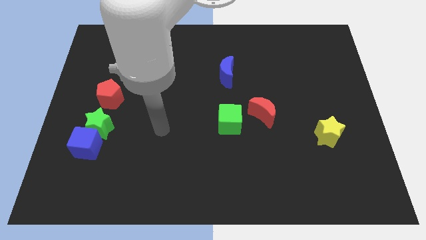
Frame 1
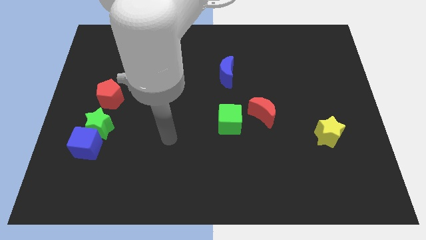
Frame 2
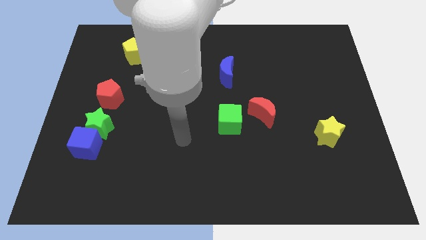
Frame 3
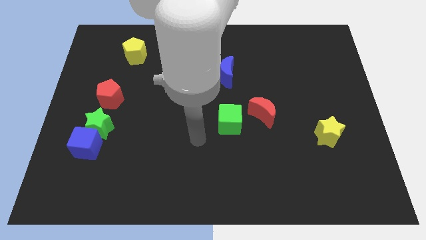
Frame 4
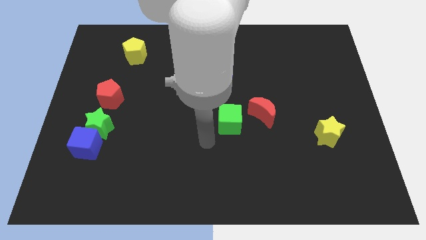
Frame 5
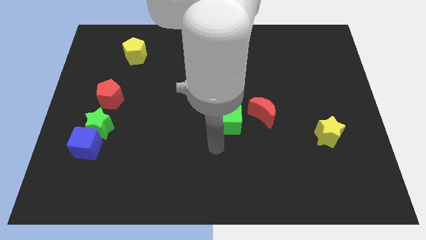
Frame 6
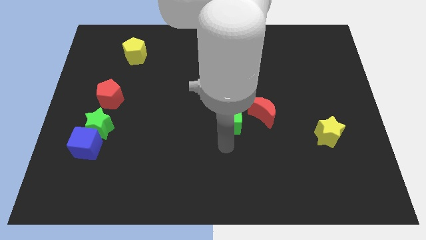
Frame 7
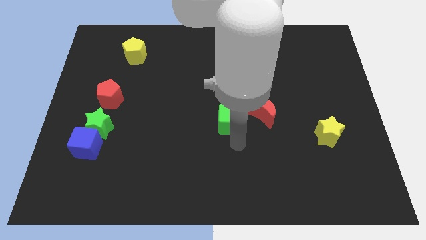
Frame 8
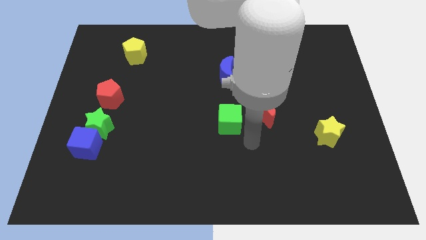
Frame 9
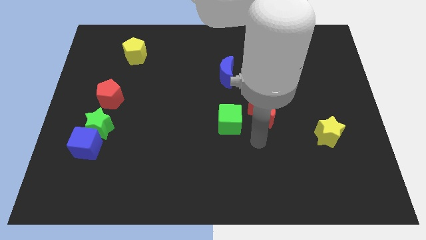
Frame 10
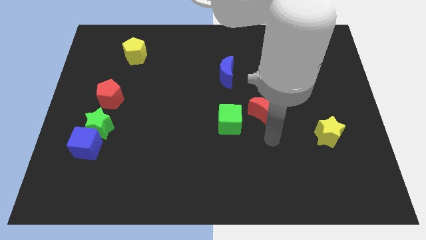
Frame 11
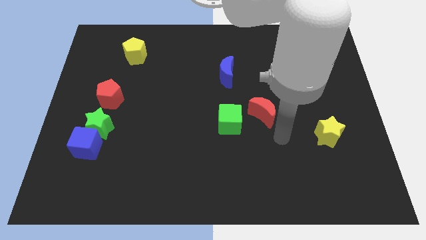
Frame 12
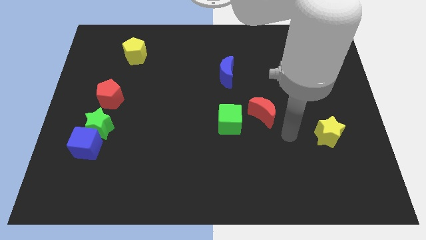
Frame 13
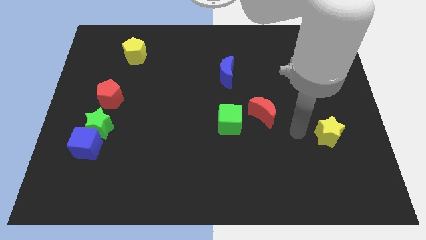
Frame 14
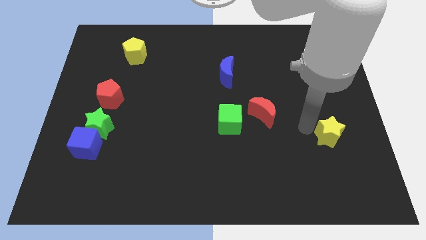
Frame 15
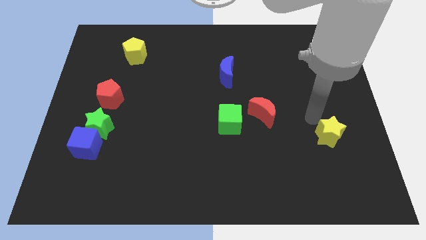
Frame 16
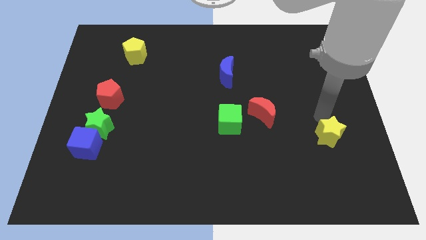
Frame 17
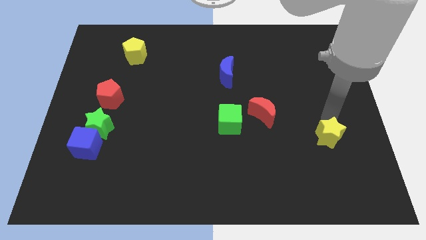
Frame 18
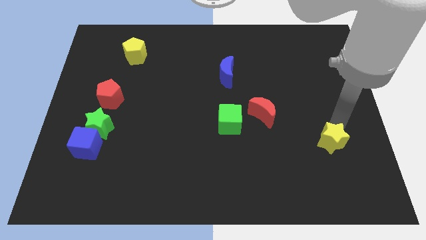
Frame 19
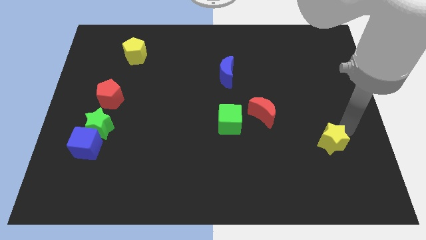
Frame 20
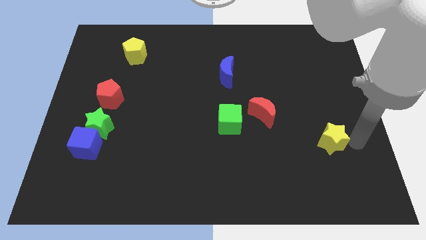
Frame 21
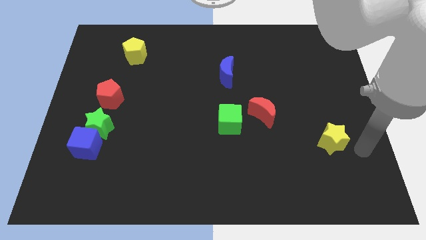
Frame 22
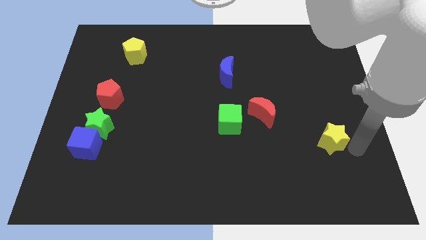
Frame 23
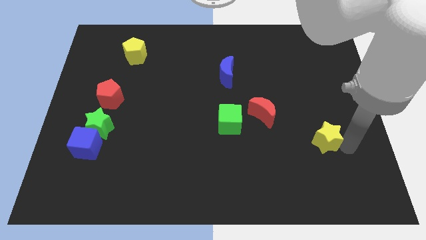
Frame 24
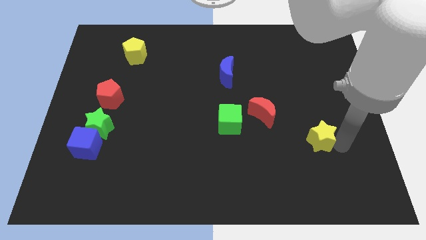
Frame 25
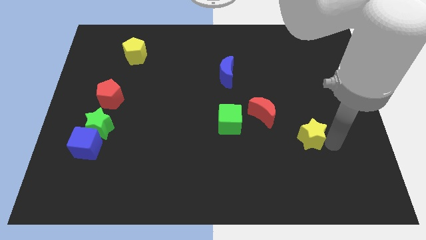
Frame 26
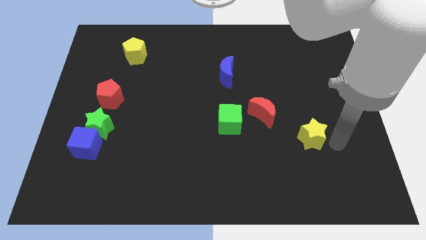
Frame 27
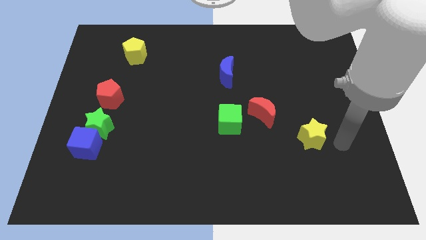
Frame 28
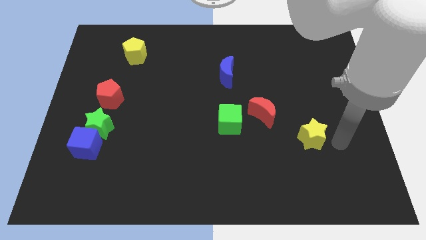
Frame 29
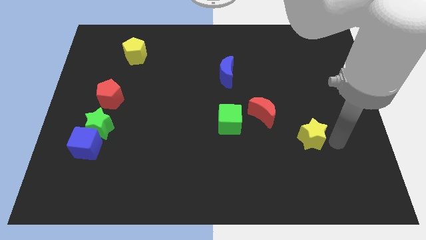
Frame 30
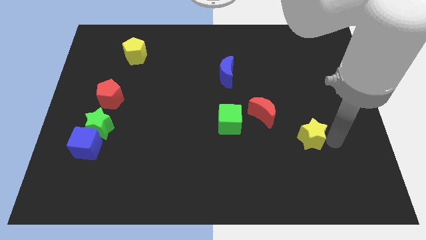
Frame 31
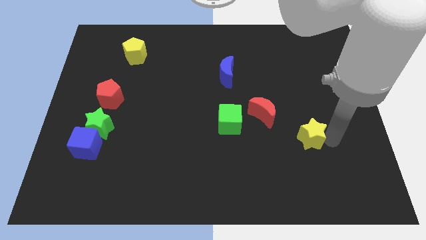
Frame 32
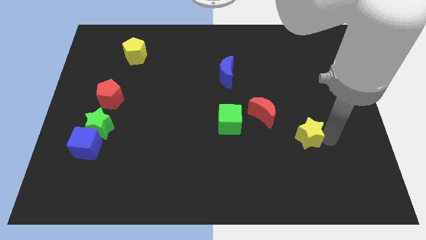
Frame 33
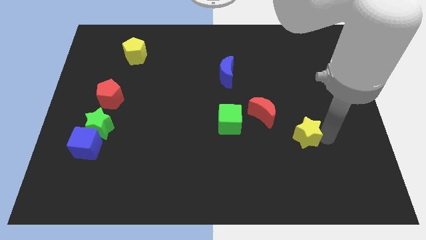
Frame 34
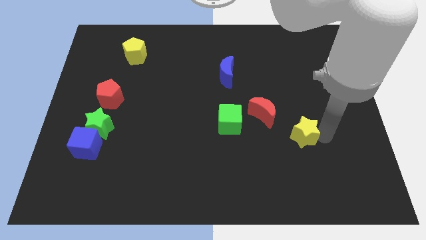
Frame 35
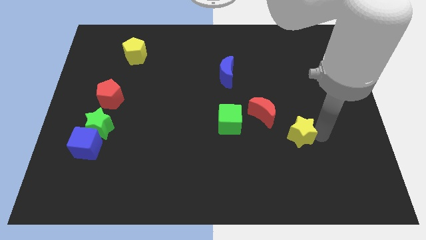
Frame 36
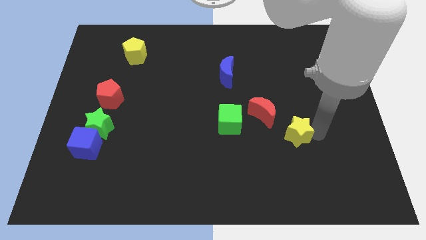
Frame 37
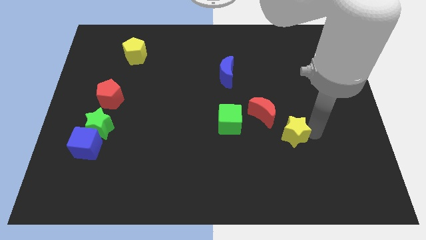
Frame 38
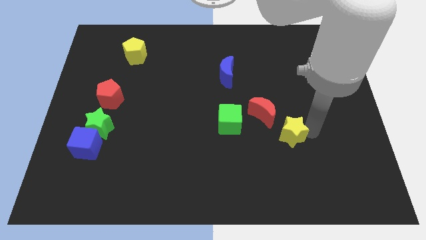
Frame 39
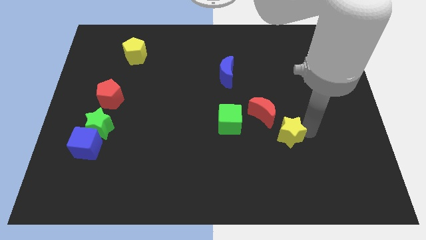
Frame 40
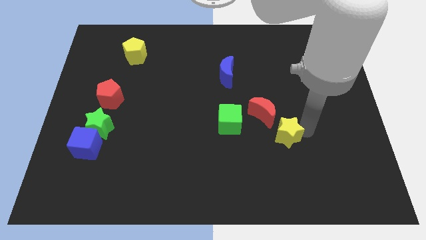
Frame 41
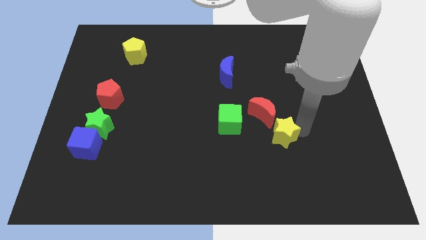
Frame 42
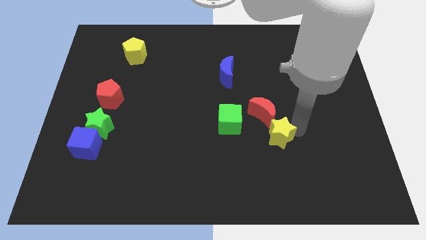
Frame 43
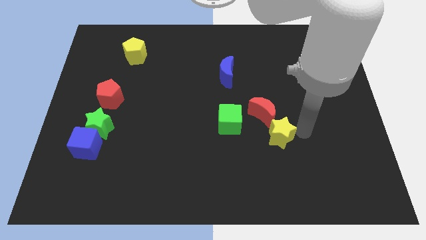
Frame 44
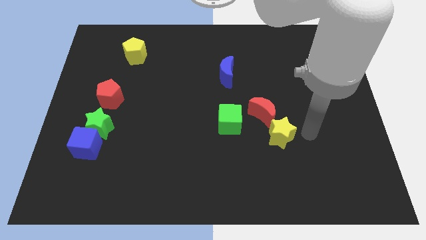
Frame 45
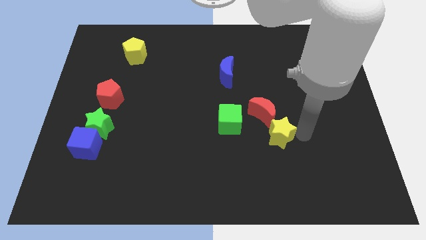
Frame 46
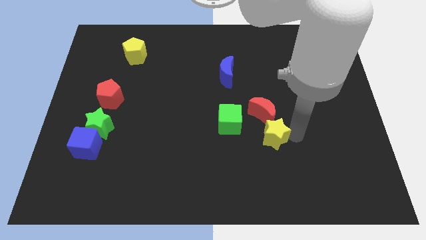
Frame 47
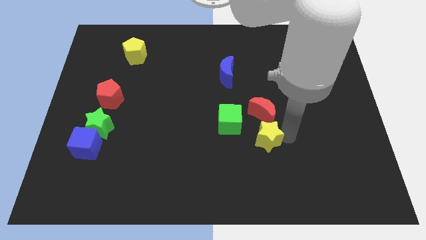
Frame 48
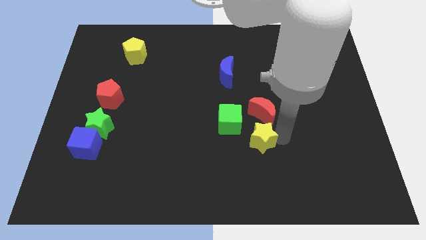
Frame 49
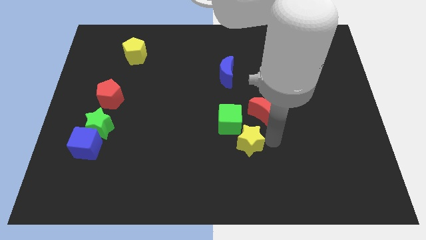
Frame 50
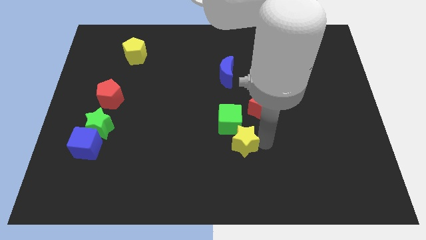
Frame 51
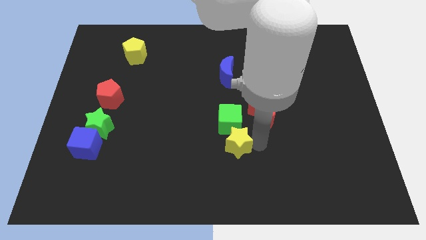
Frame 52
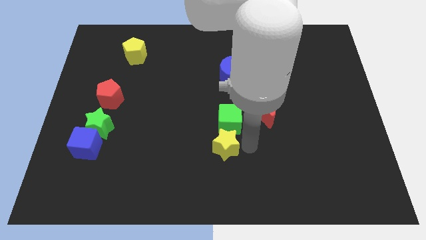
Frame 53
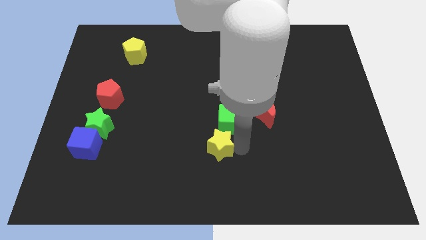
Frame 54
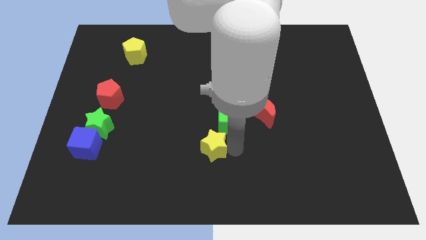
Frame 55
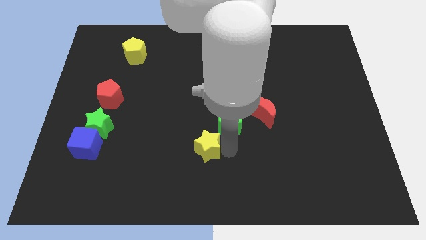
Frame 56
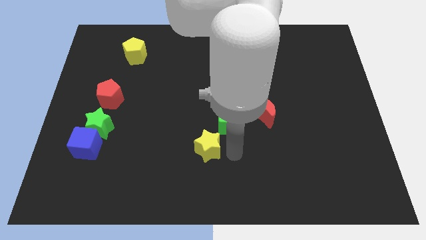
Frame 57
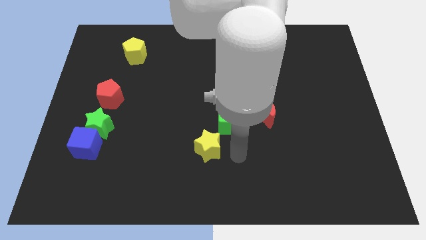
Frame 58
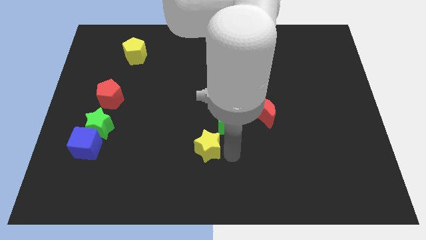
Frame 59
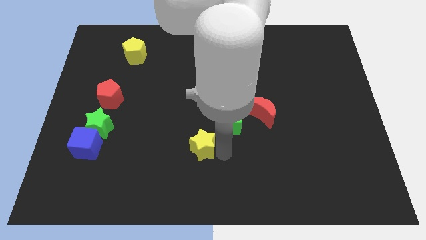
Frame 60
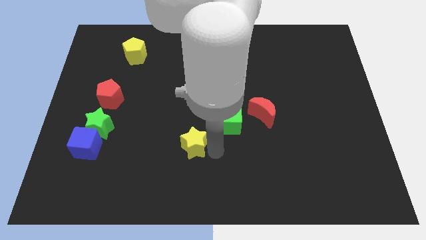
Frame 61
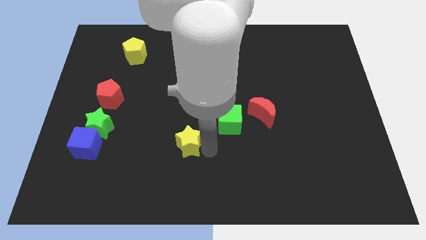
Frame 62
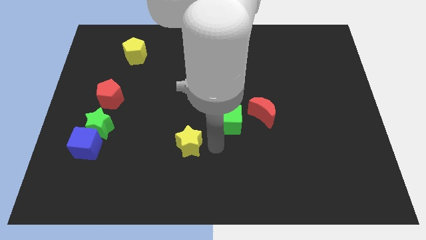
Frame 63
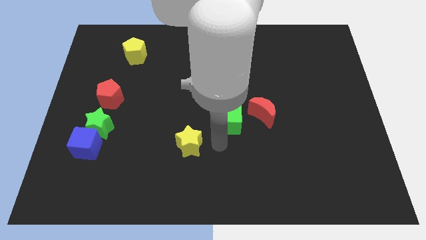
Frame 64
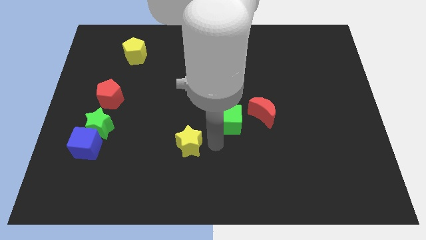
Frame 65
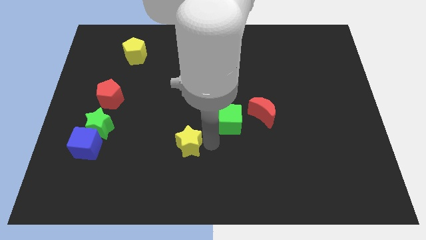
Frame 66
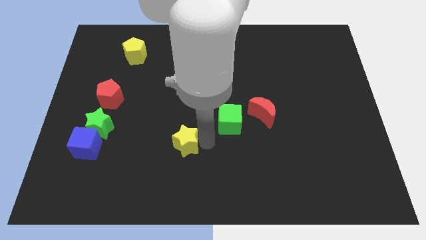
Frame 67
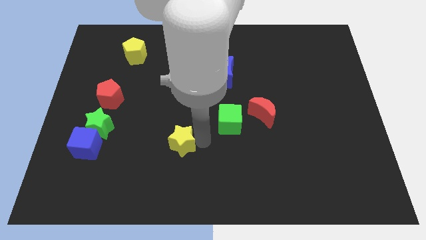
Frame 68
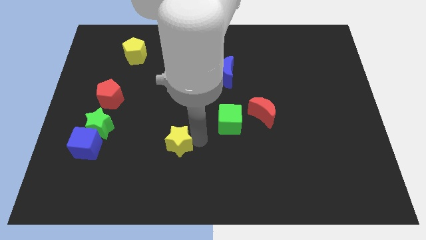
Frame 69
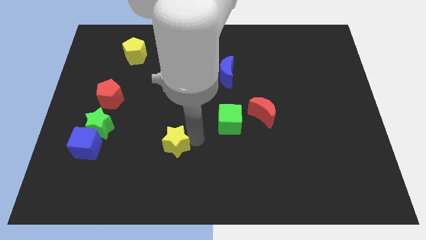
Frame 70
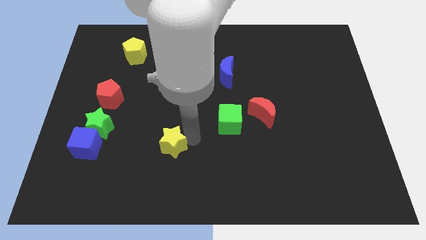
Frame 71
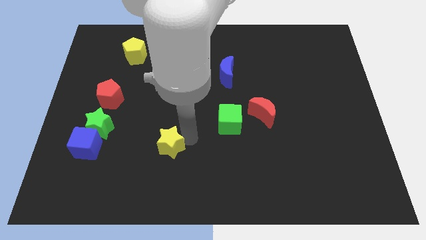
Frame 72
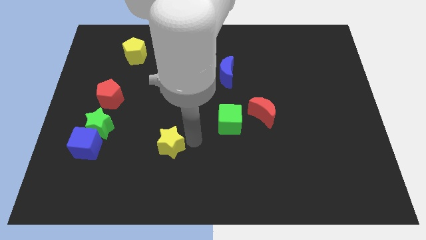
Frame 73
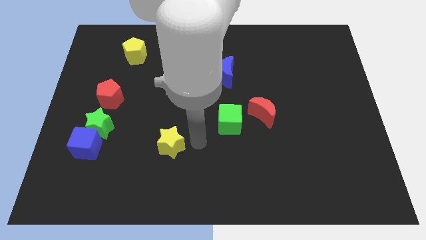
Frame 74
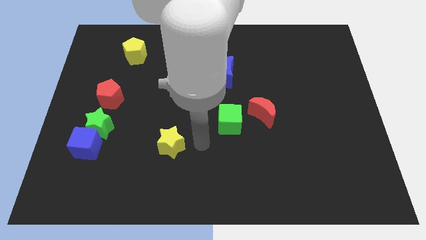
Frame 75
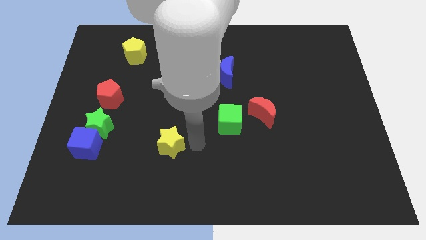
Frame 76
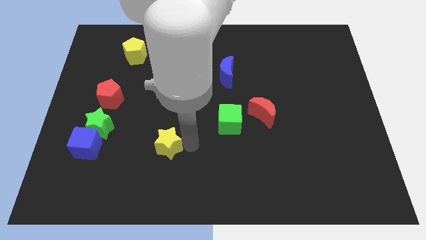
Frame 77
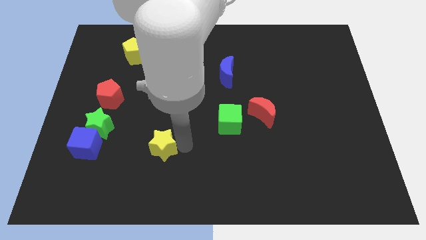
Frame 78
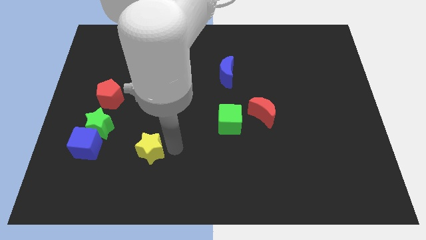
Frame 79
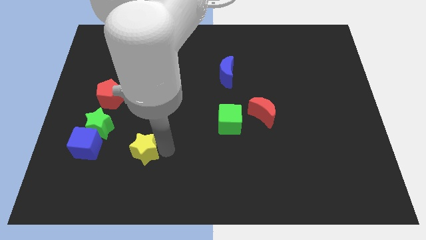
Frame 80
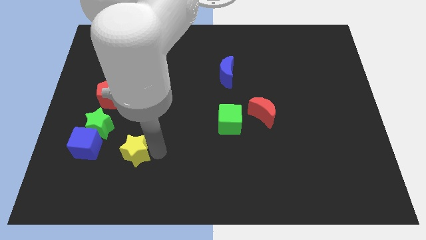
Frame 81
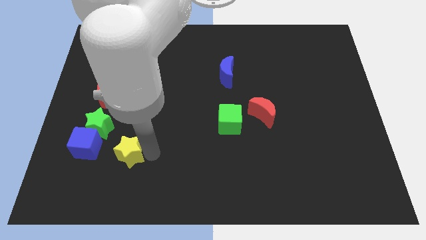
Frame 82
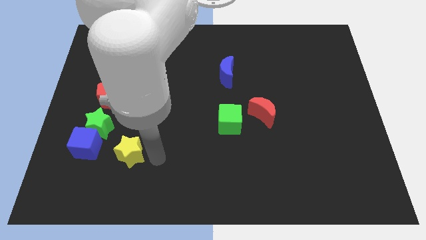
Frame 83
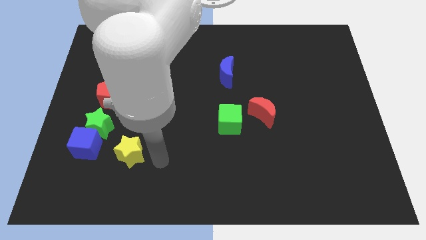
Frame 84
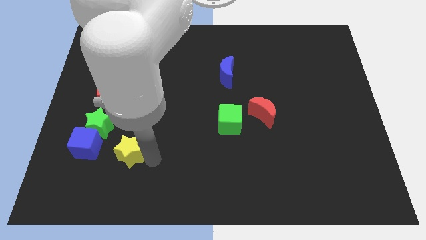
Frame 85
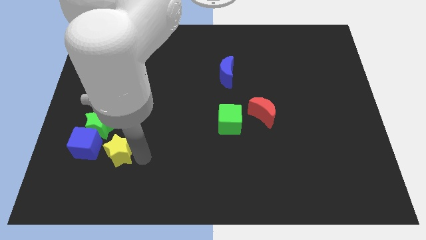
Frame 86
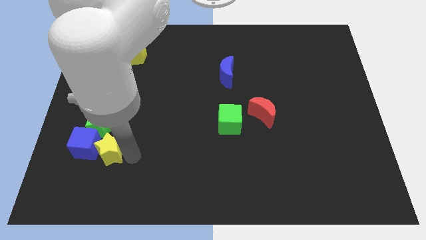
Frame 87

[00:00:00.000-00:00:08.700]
put the yellow star to the blue cube
